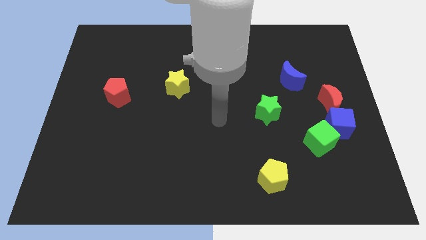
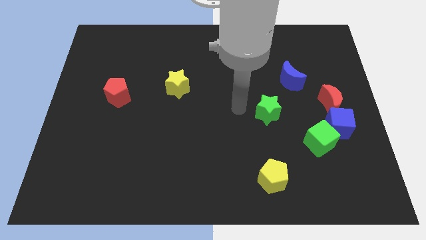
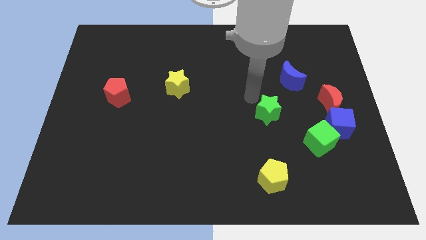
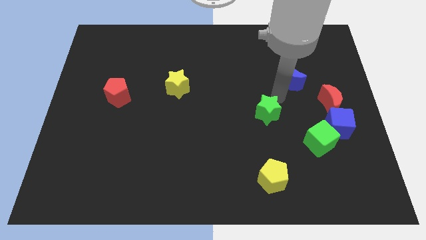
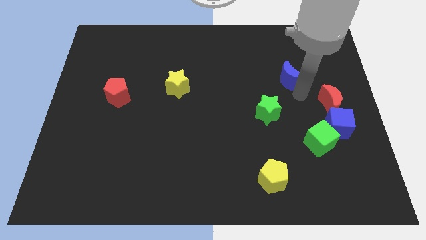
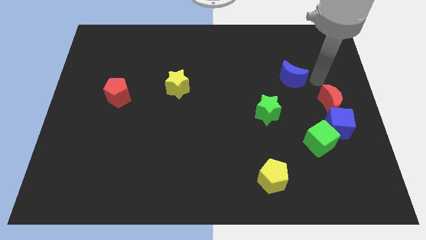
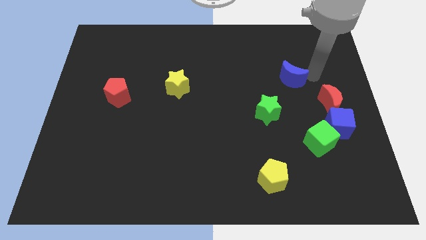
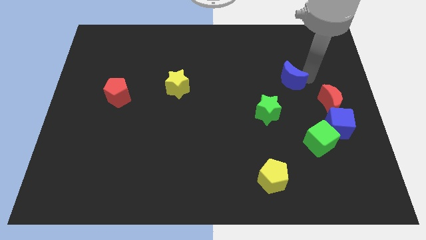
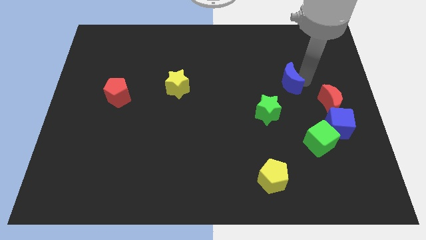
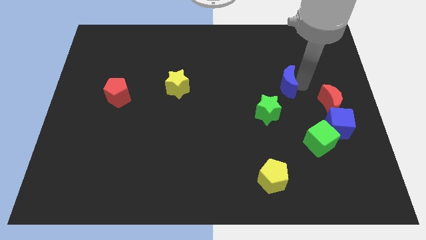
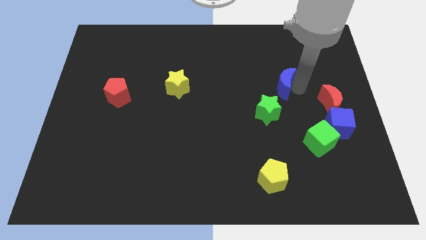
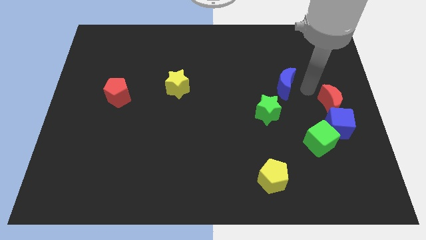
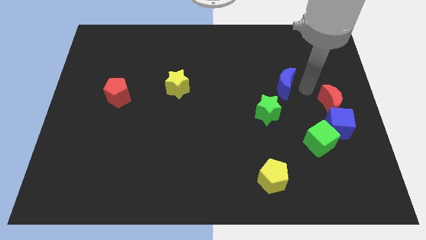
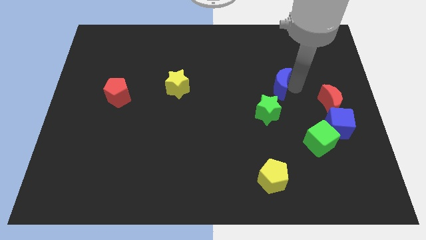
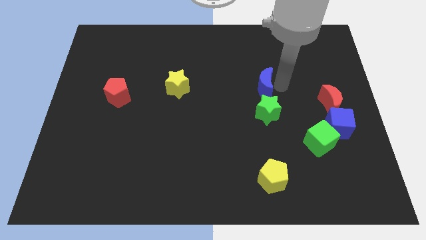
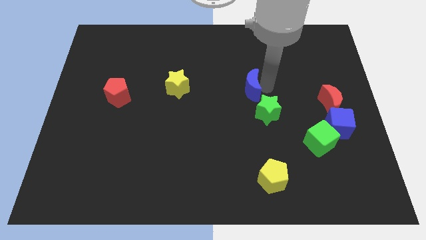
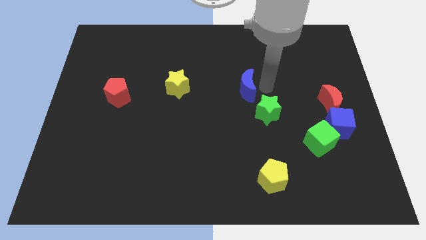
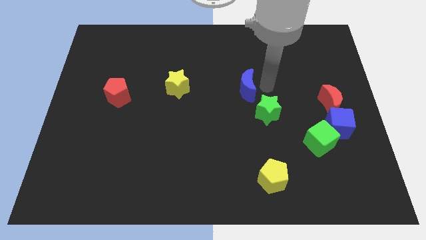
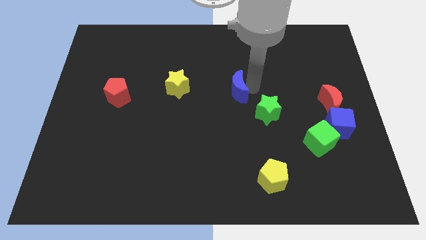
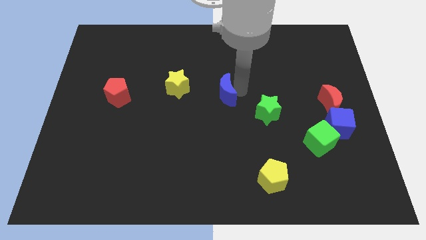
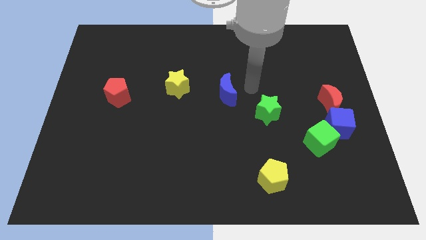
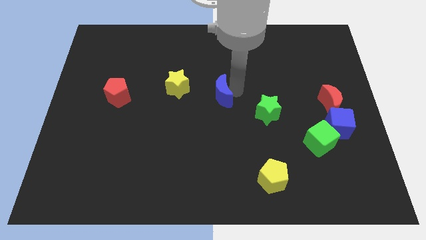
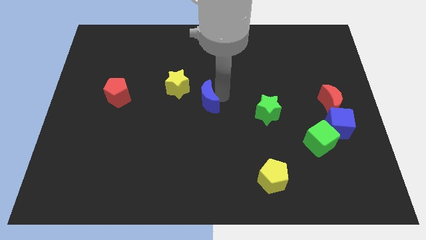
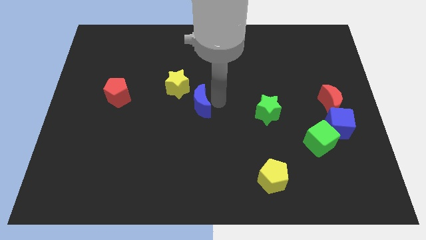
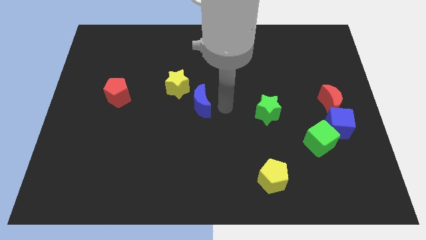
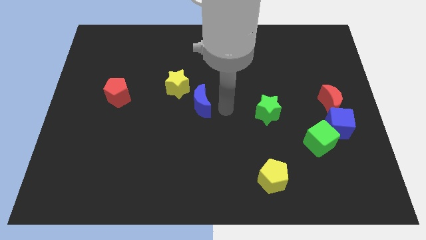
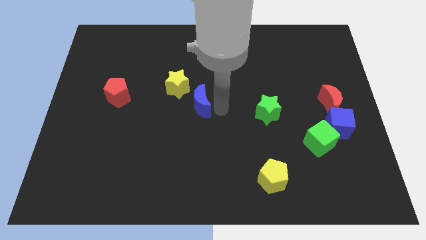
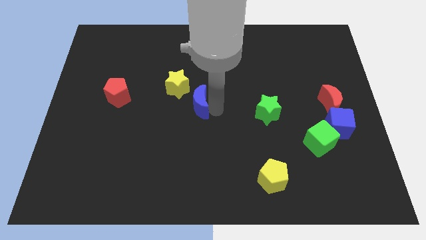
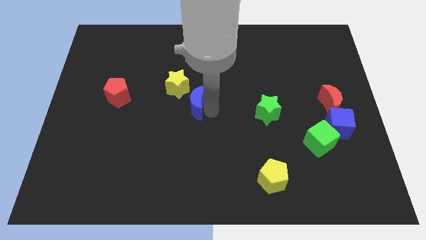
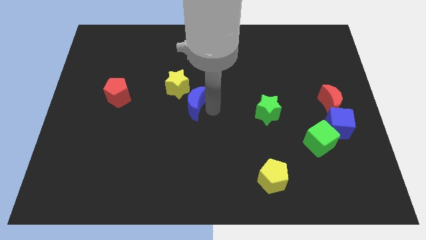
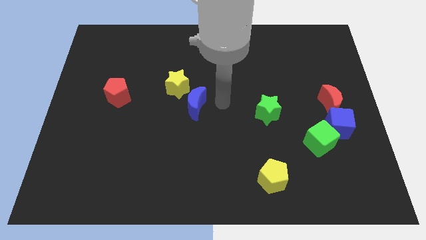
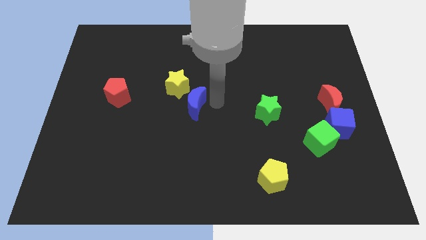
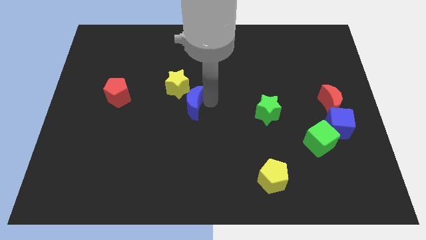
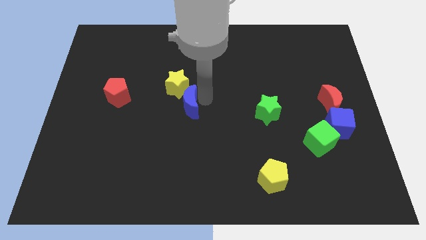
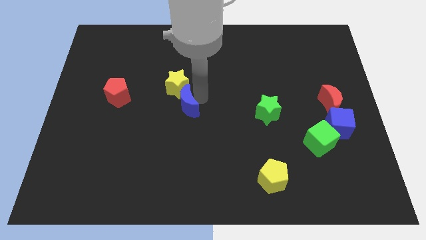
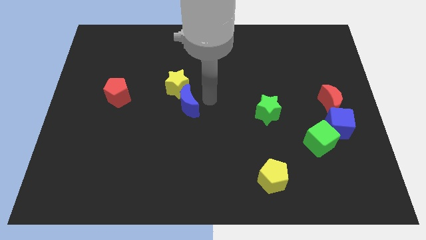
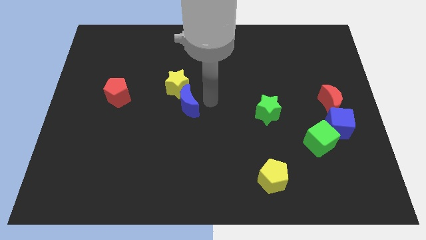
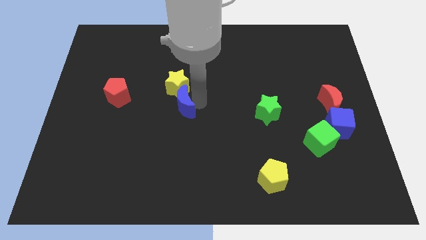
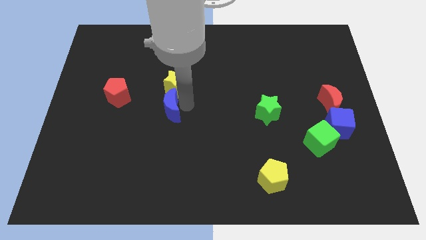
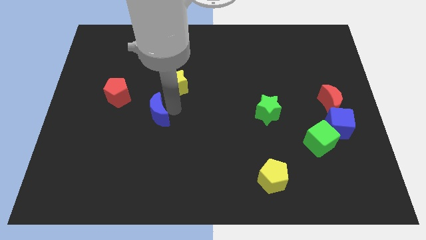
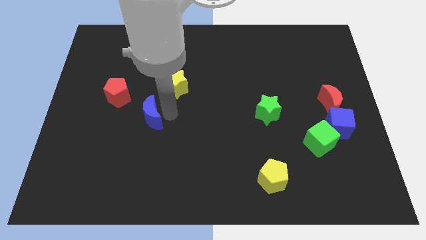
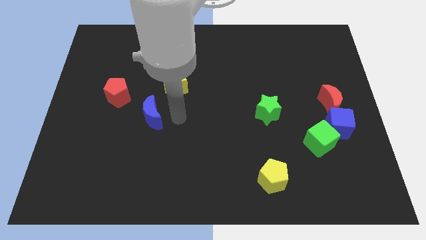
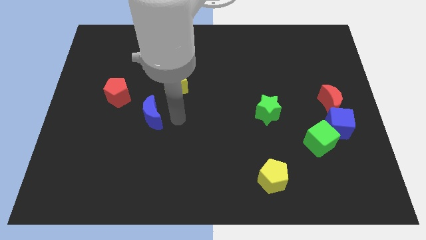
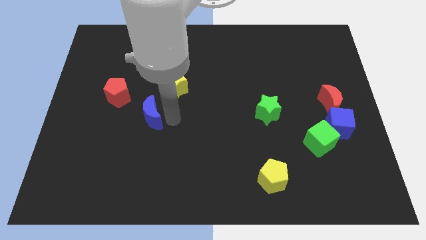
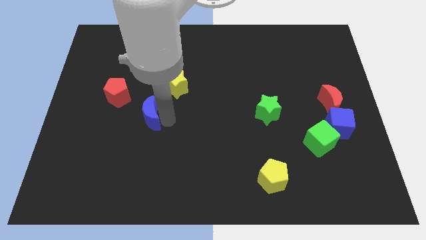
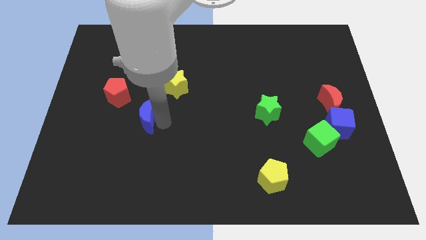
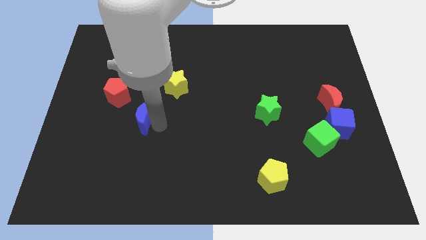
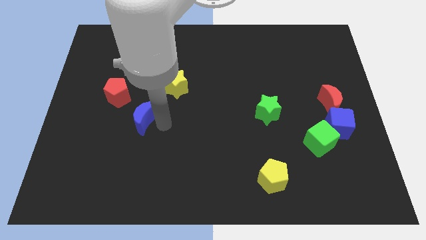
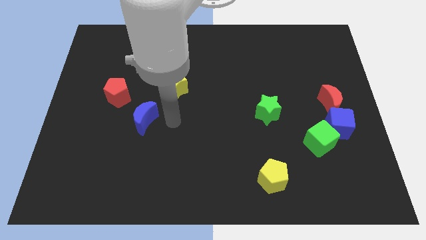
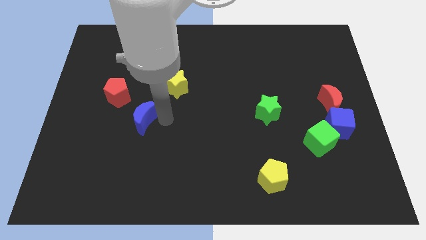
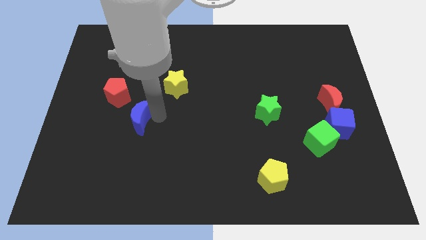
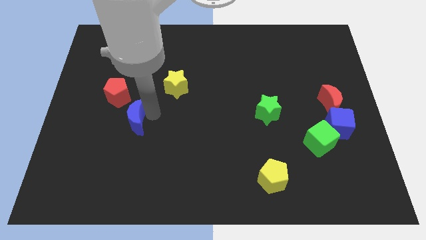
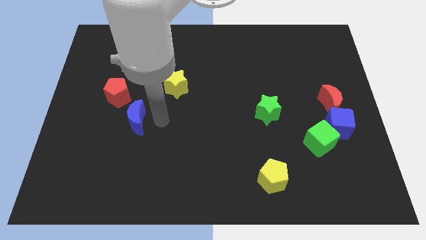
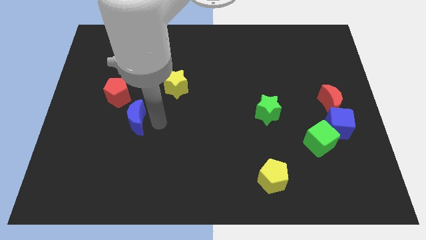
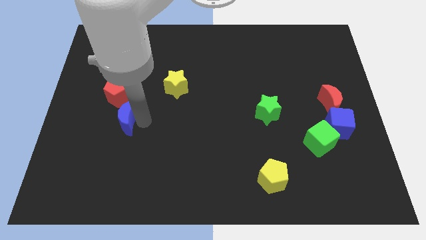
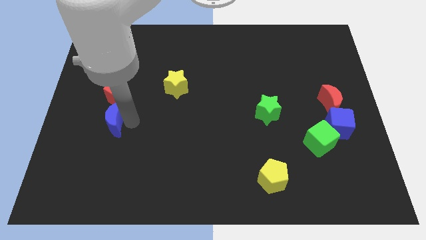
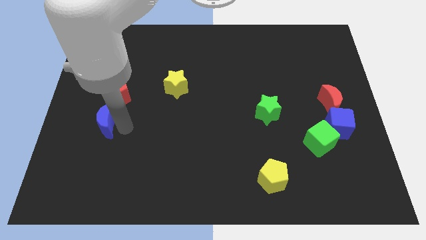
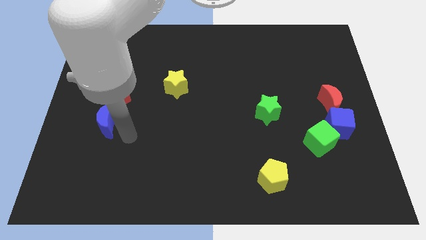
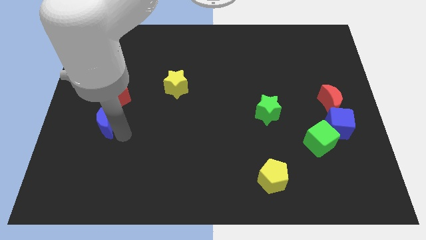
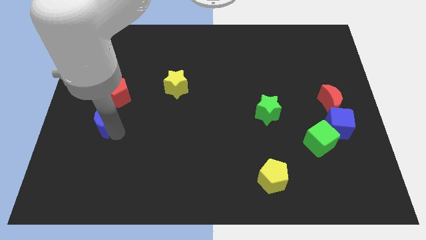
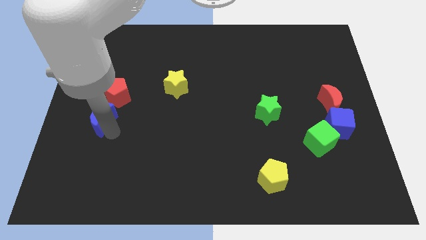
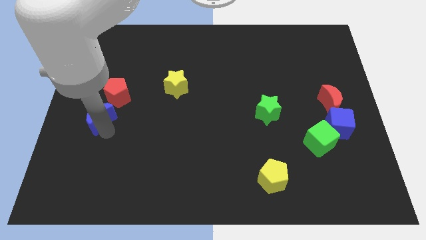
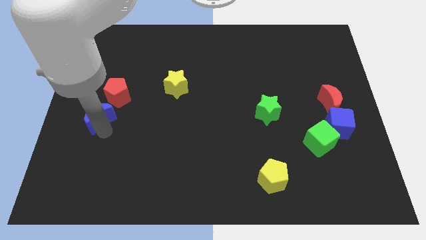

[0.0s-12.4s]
slide the blue moon to the center left

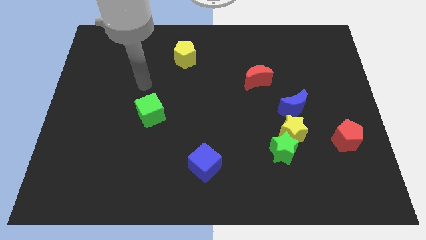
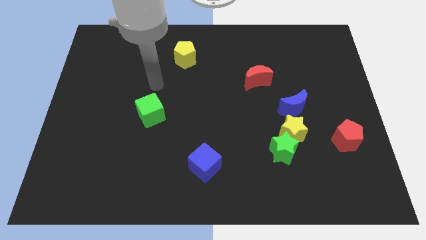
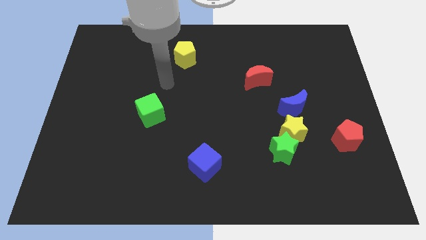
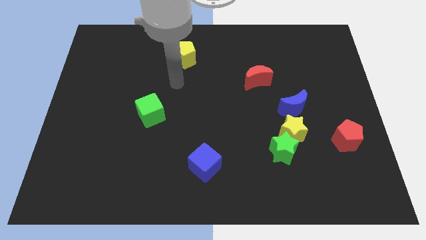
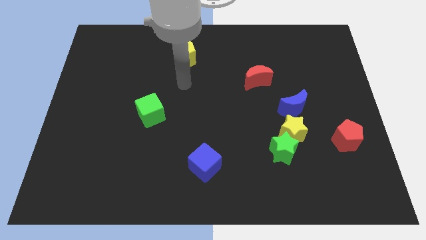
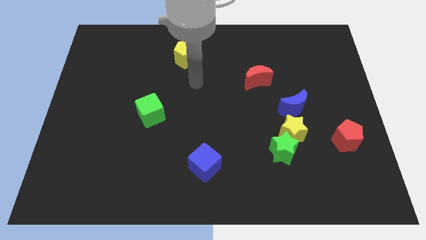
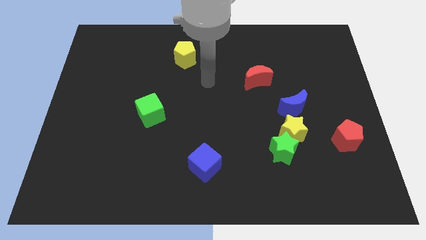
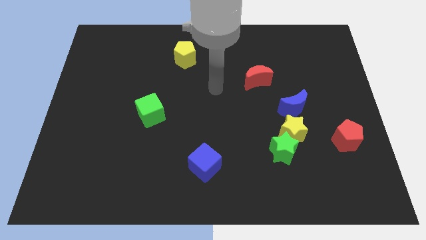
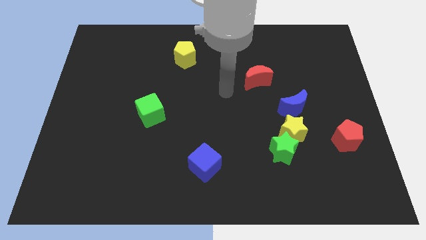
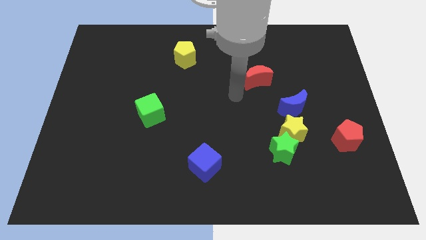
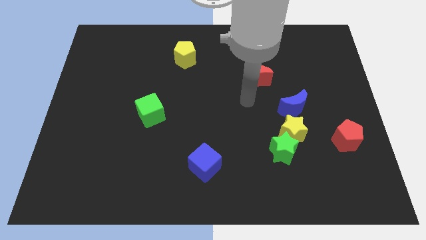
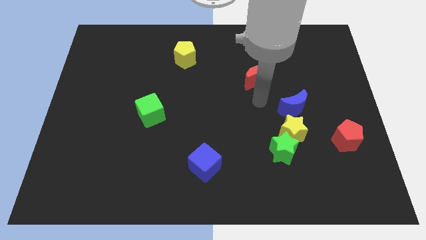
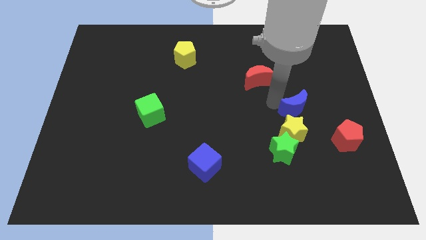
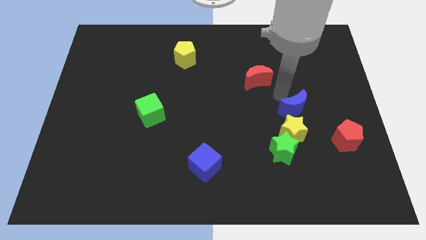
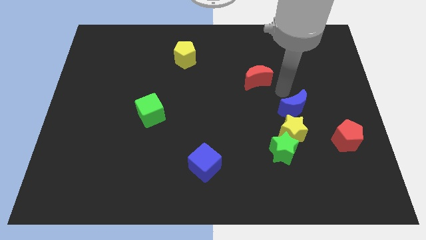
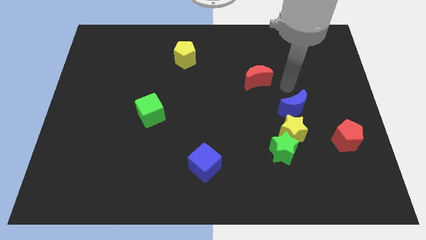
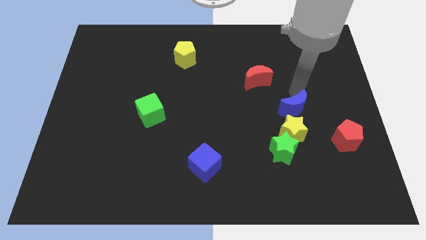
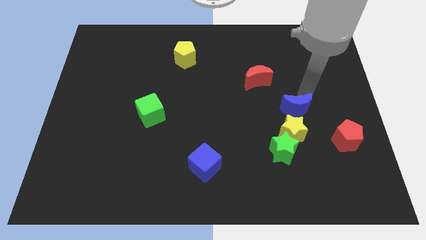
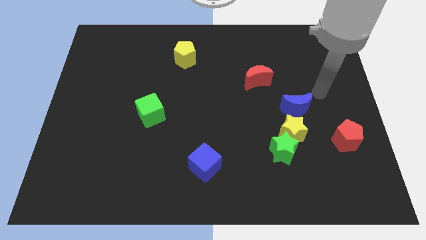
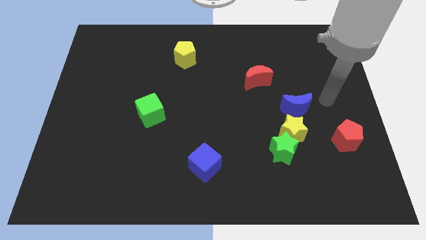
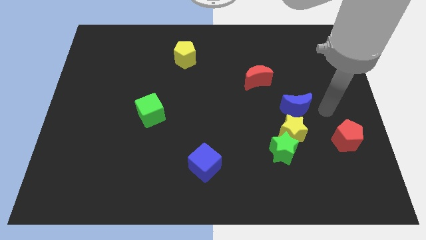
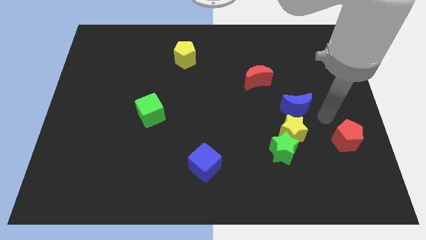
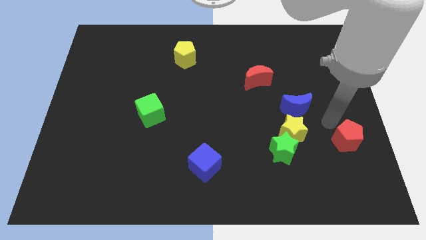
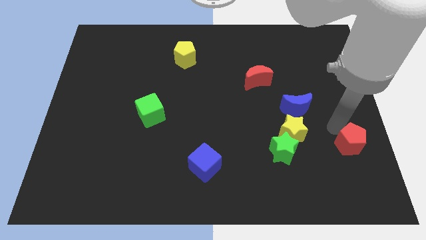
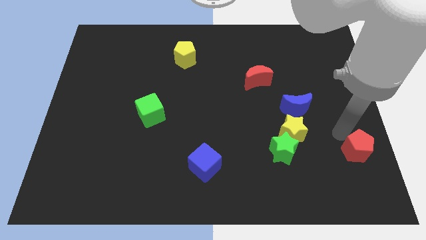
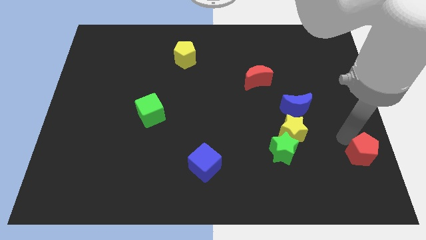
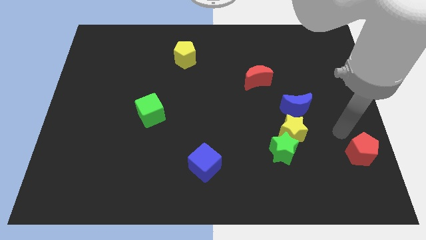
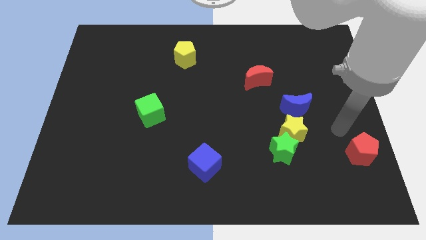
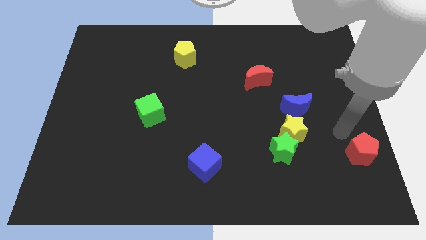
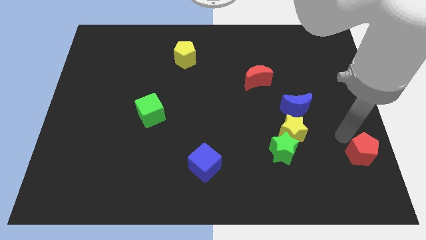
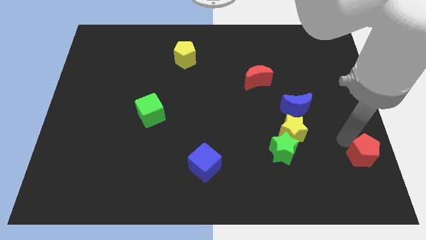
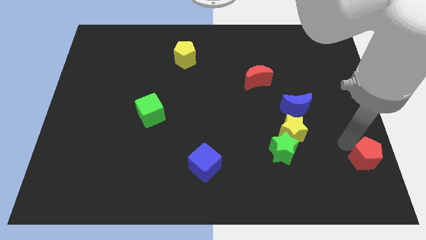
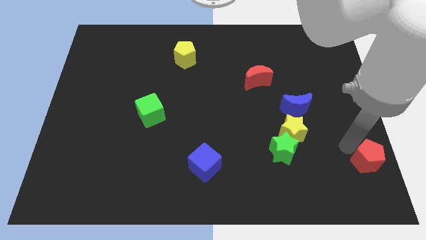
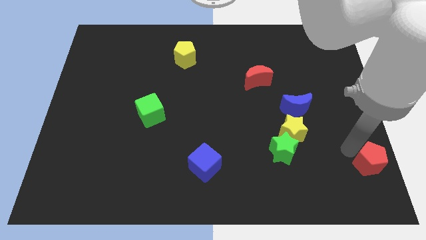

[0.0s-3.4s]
push the red pentagon to the bottom right of the board
